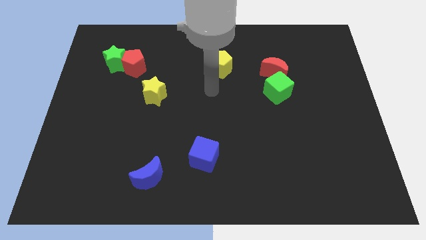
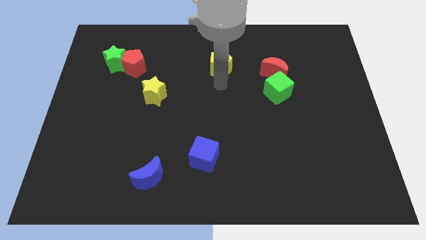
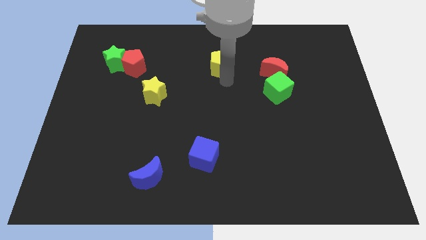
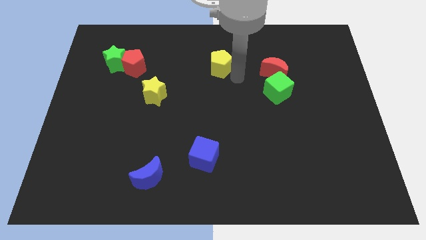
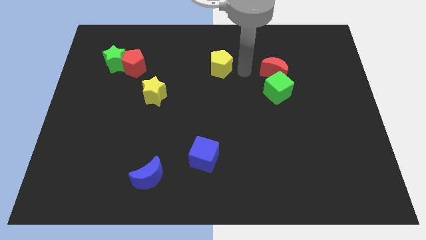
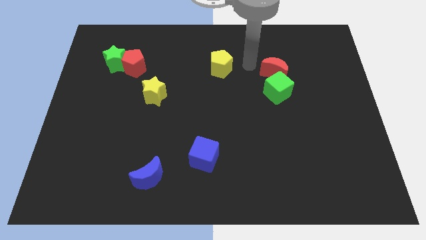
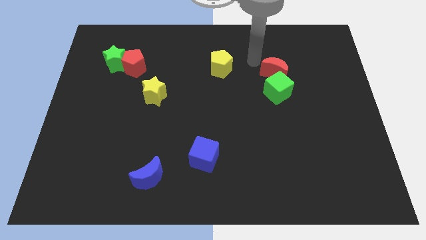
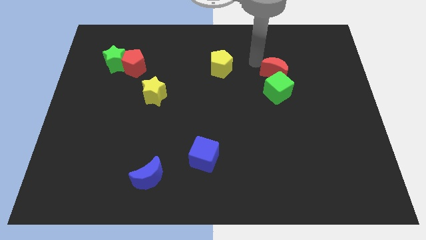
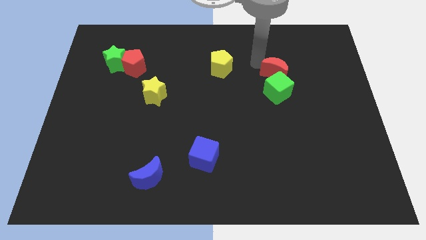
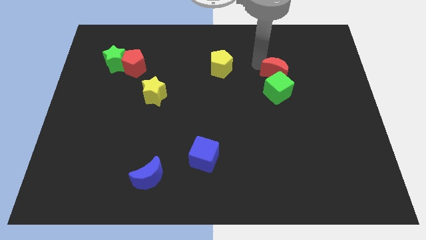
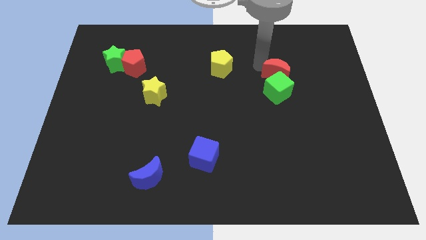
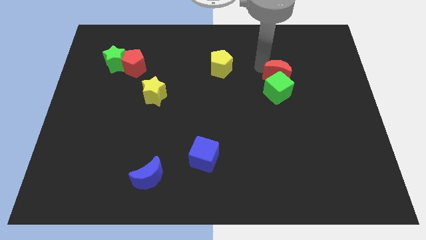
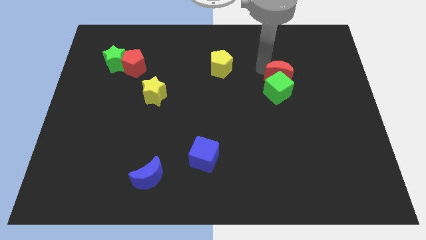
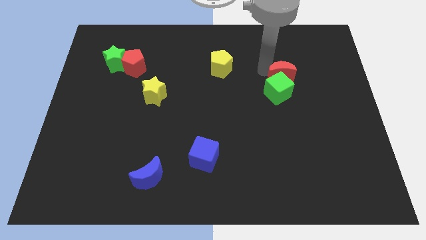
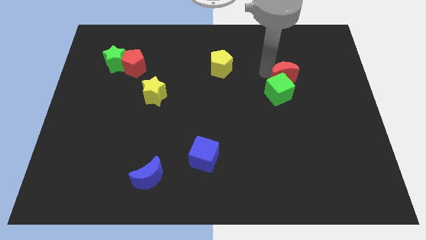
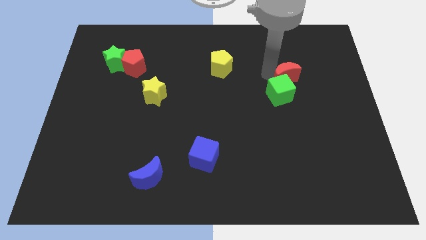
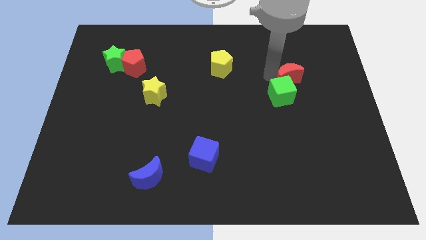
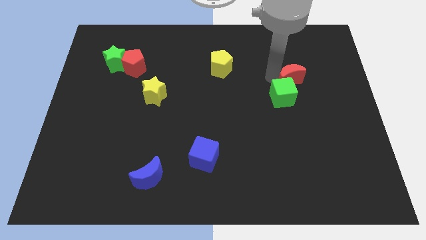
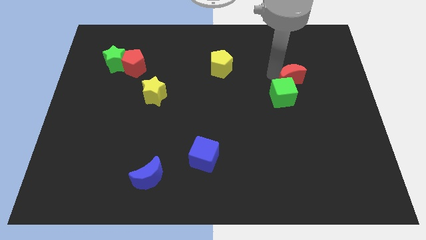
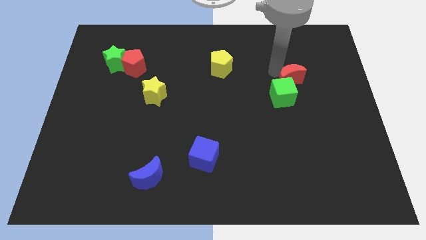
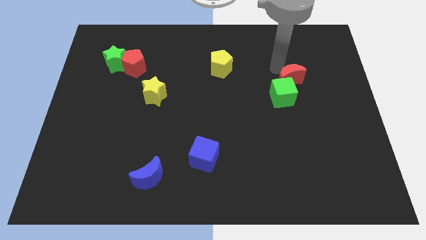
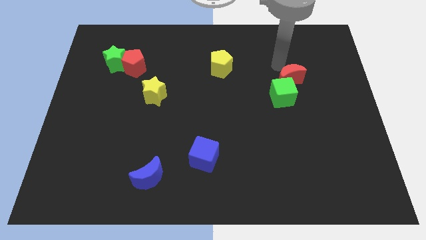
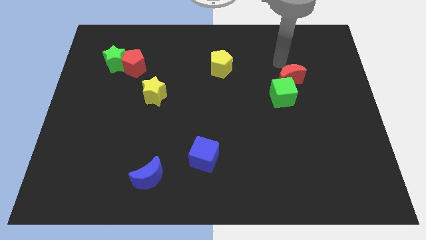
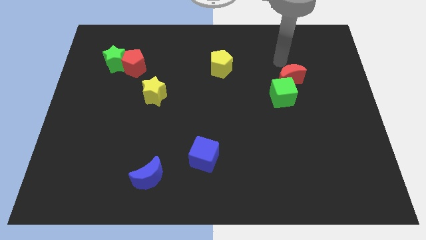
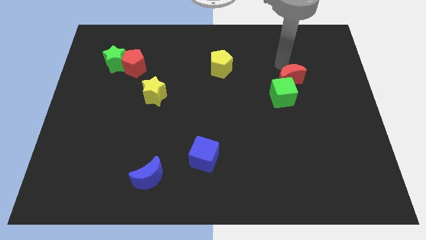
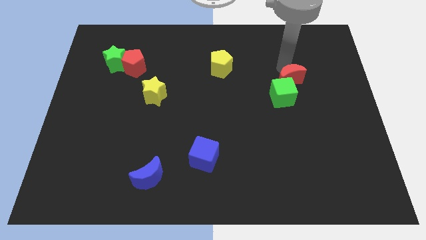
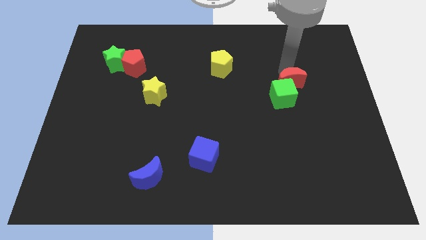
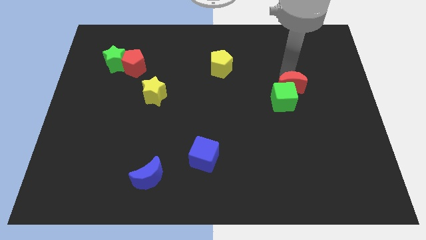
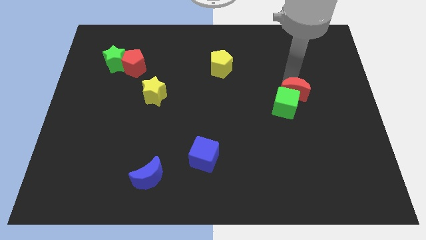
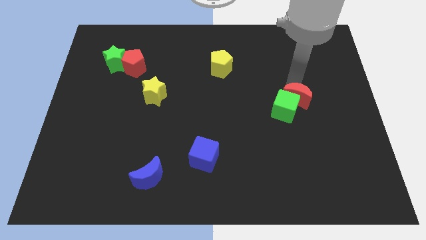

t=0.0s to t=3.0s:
move the red moon down a bit

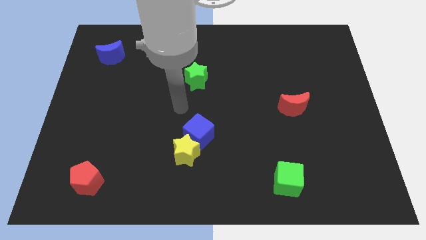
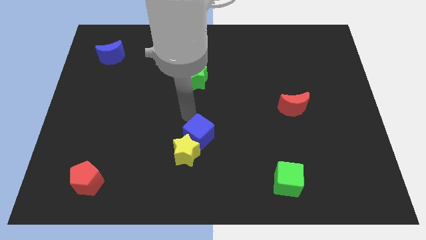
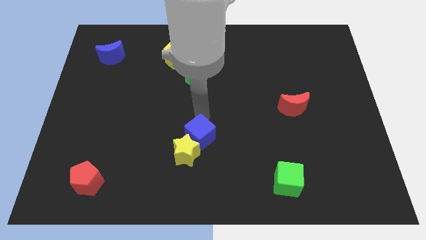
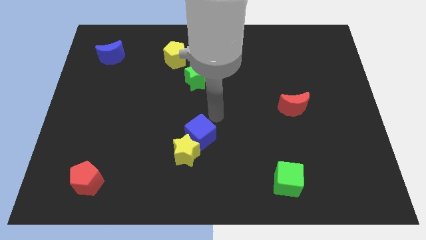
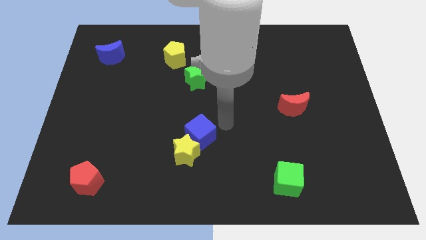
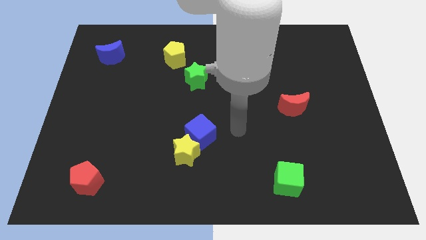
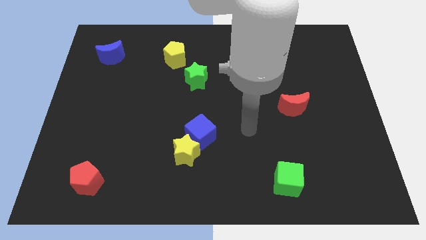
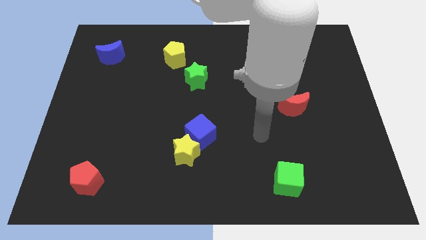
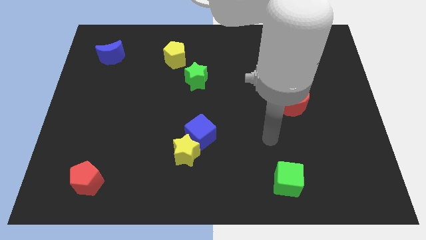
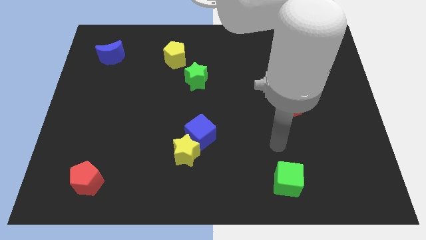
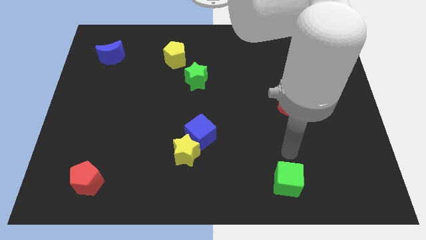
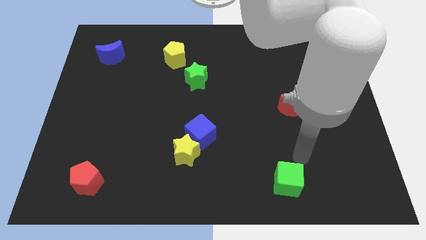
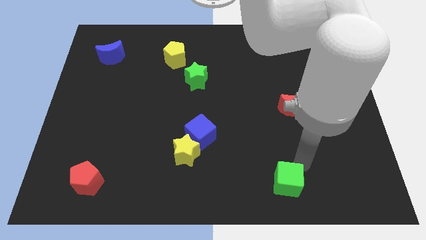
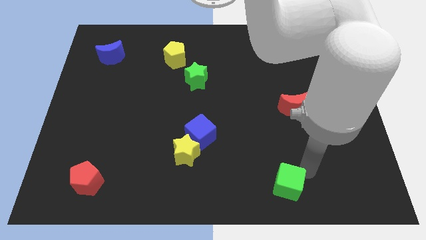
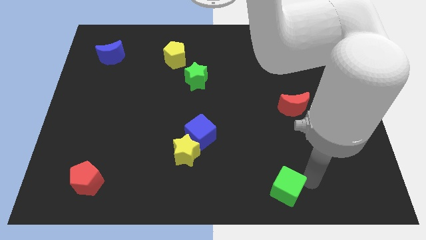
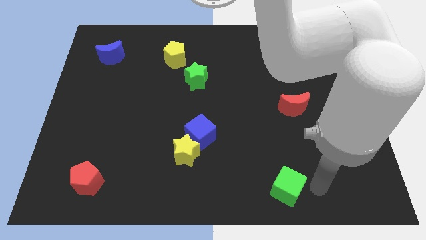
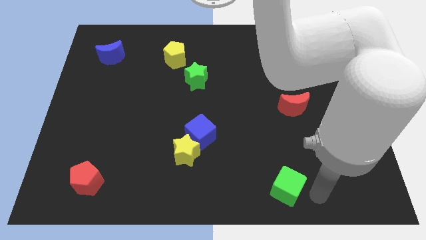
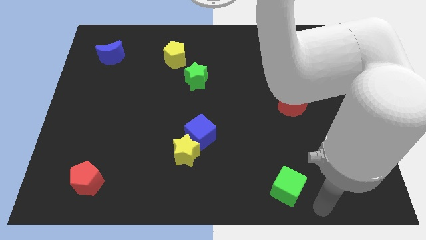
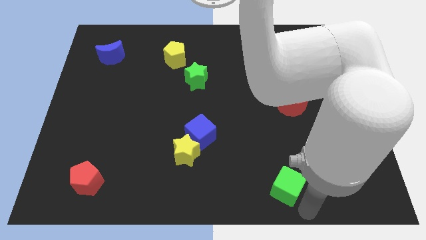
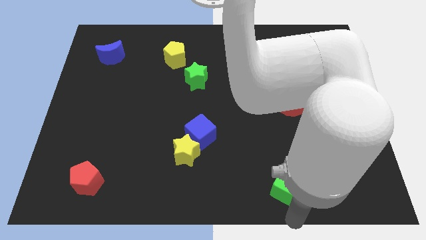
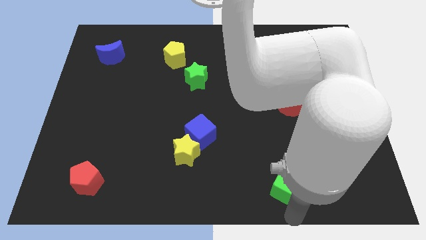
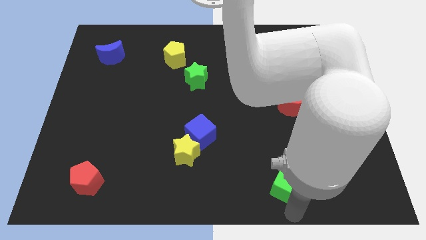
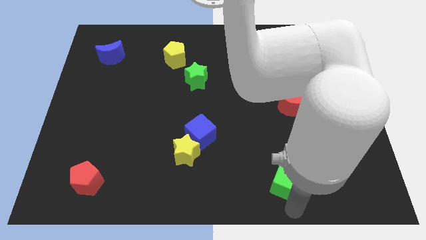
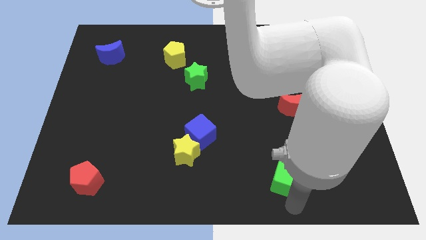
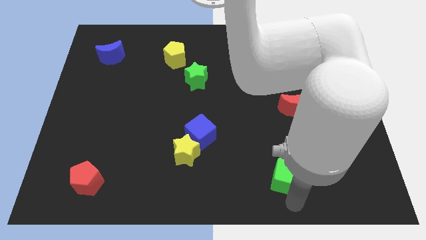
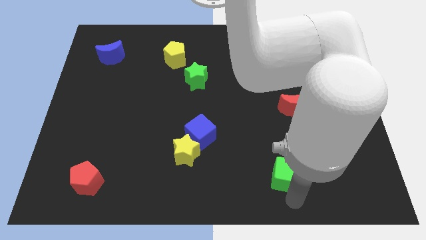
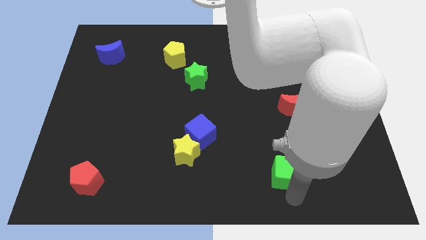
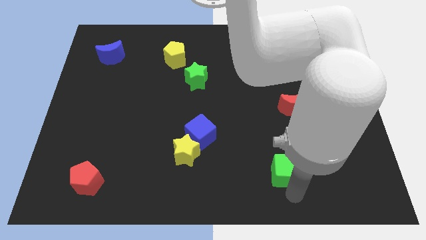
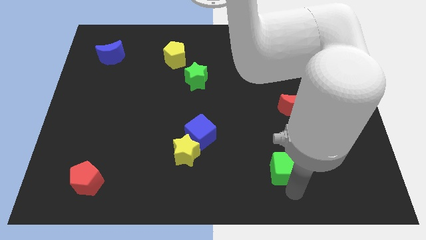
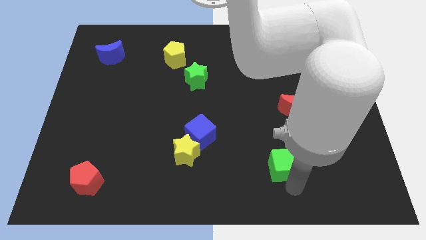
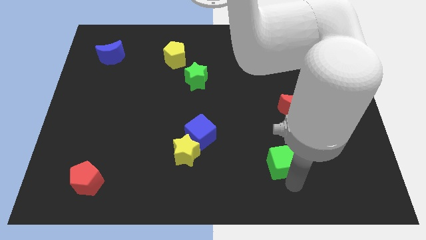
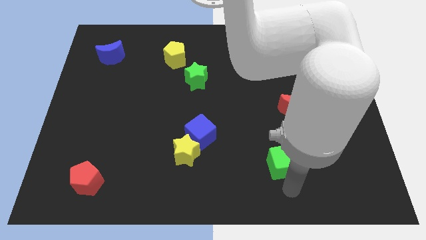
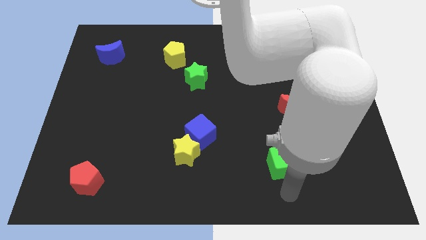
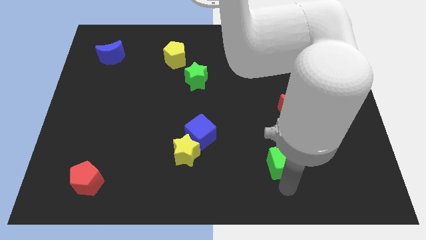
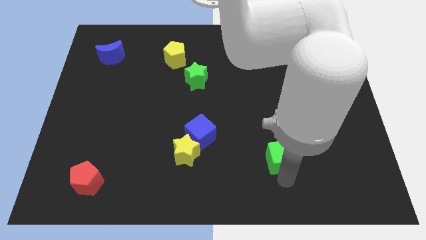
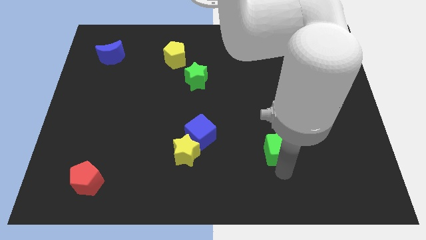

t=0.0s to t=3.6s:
slide the green cube slightly up

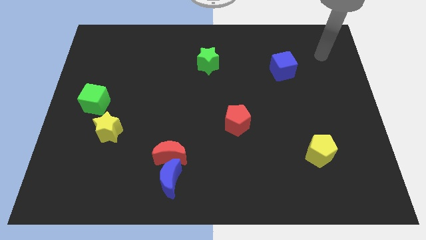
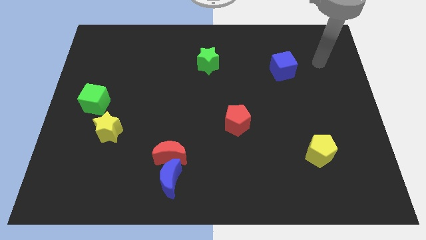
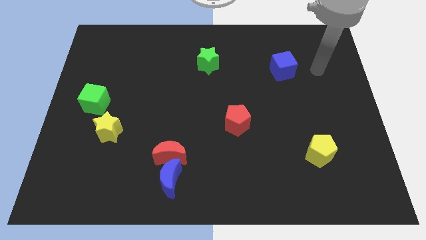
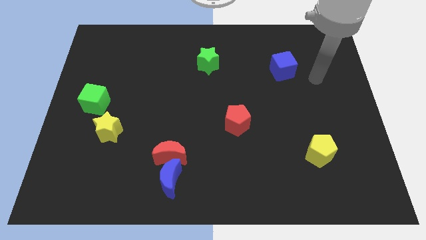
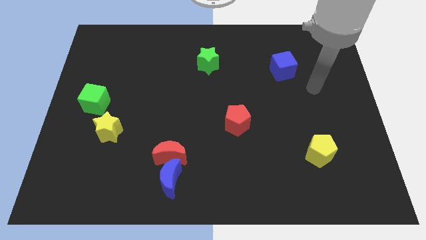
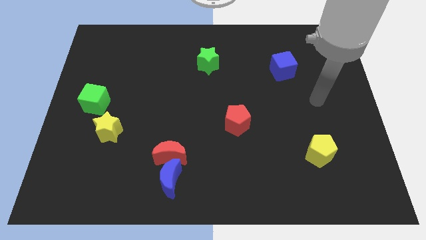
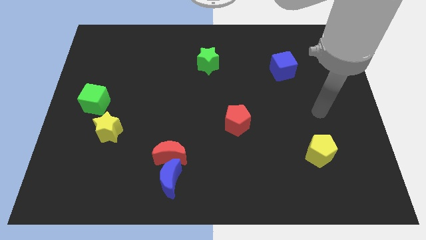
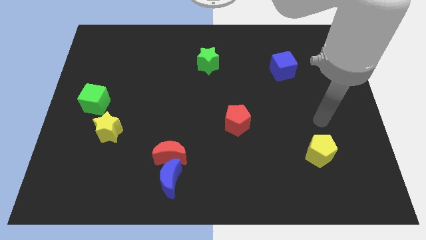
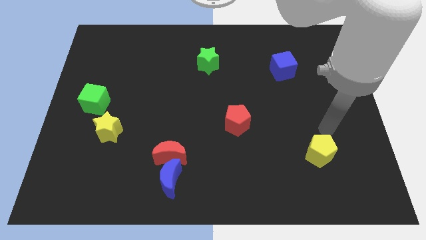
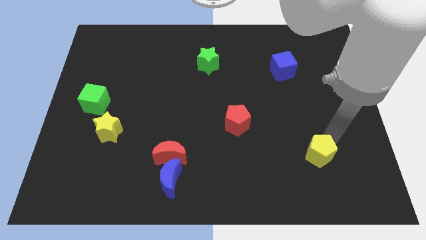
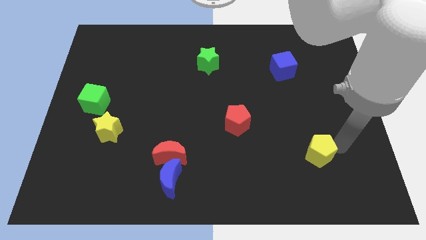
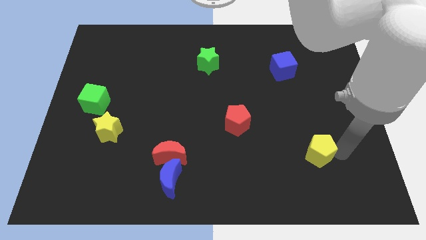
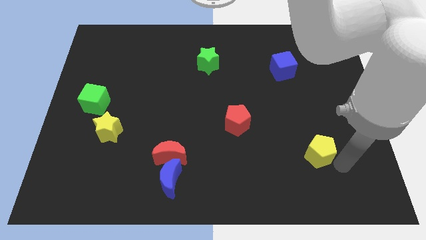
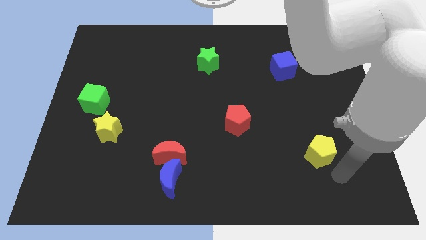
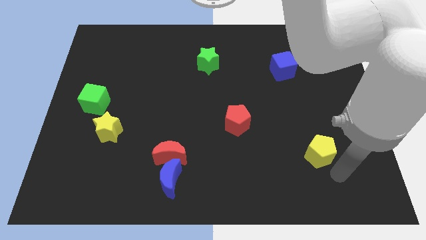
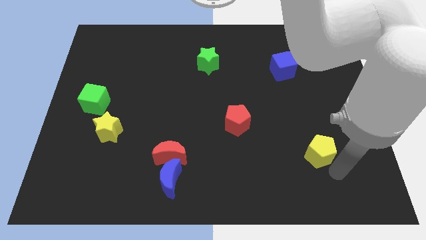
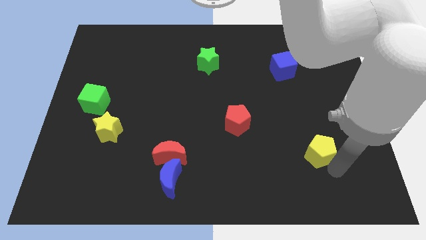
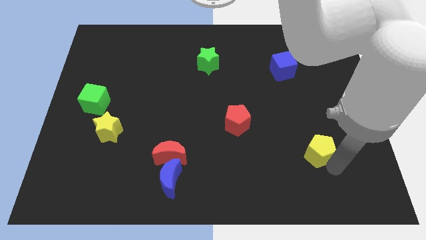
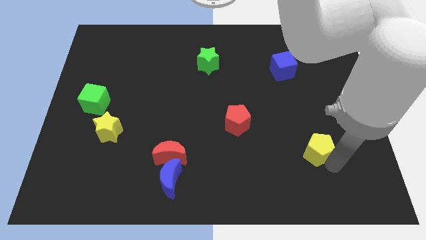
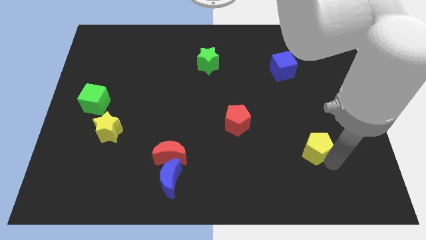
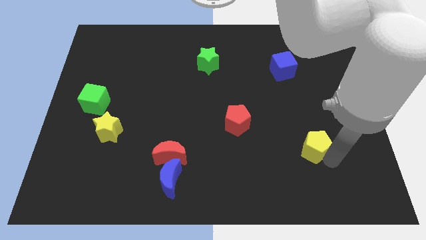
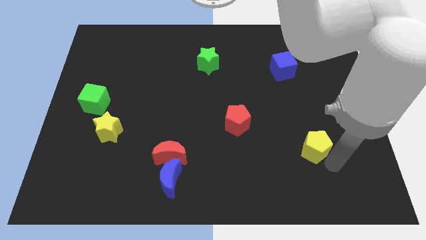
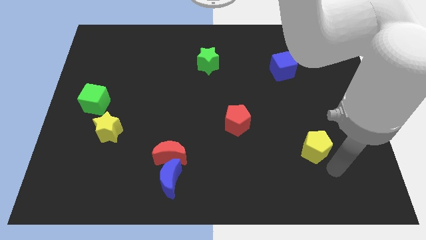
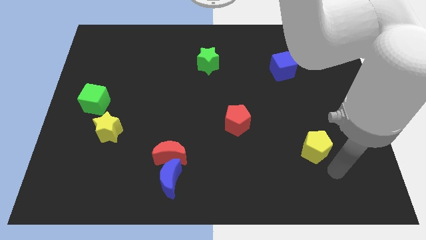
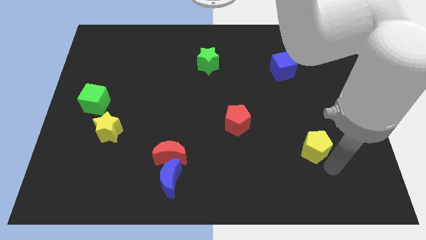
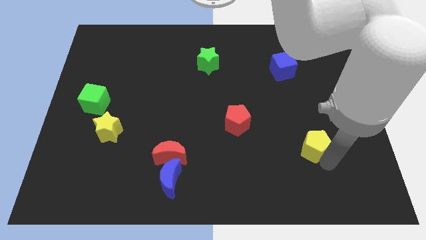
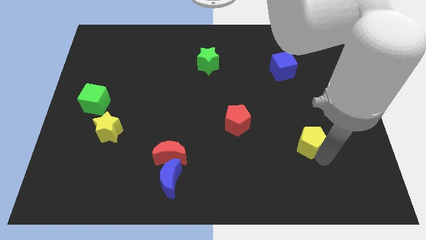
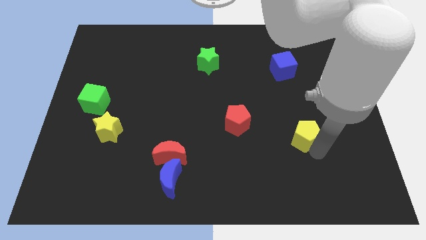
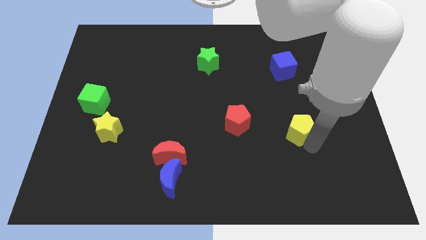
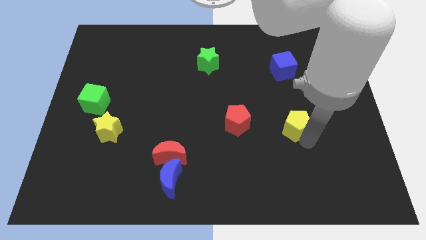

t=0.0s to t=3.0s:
slide the yellow pentagon a bit diagonally upwards and left
